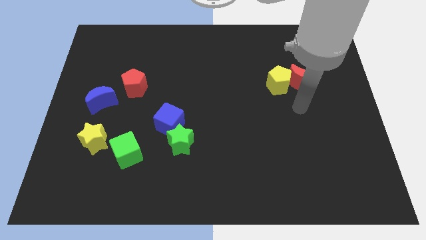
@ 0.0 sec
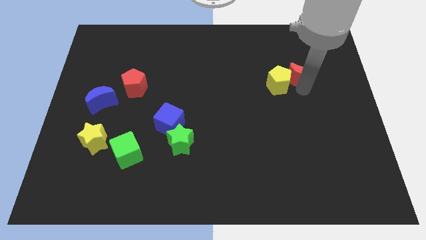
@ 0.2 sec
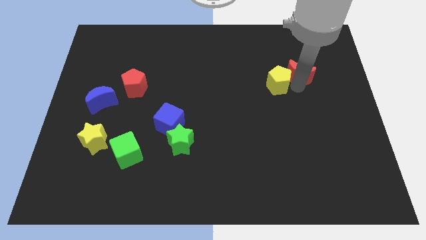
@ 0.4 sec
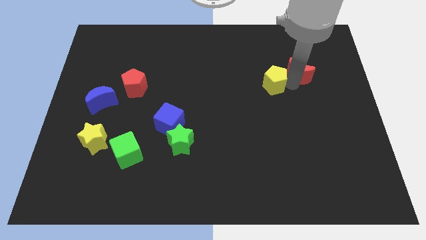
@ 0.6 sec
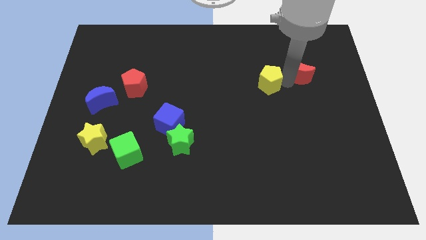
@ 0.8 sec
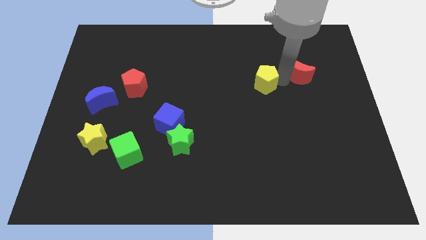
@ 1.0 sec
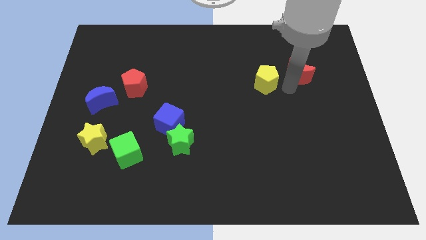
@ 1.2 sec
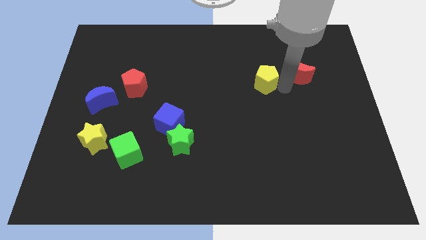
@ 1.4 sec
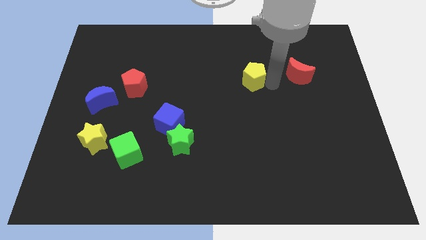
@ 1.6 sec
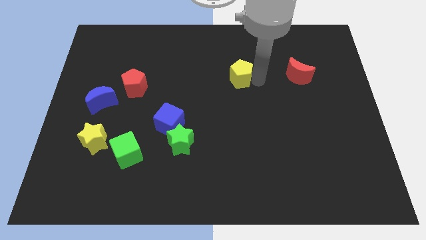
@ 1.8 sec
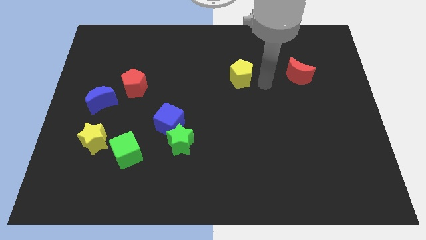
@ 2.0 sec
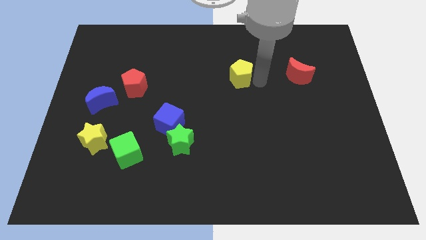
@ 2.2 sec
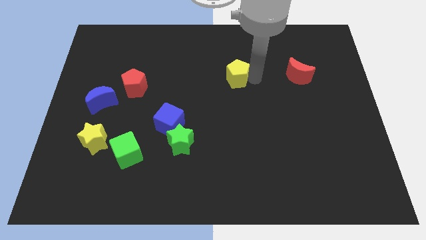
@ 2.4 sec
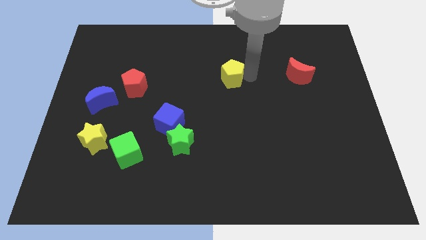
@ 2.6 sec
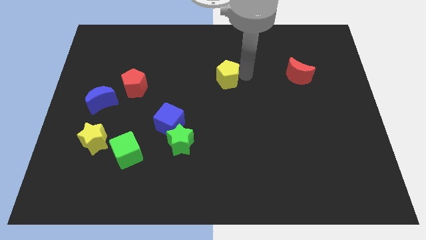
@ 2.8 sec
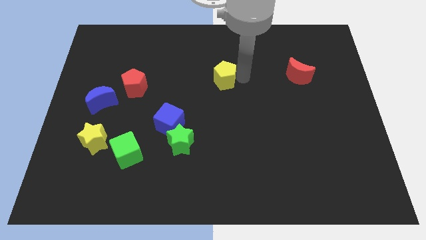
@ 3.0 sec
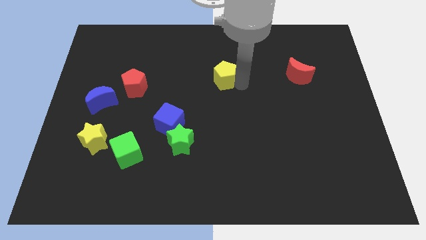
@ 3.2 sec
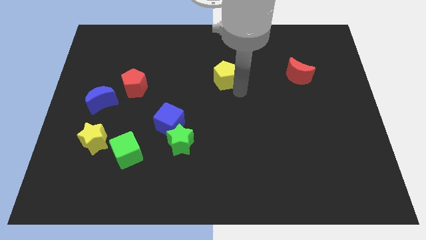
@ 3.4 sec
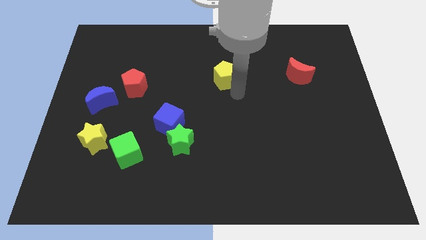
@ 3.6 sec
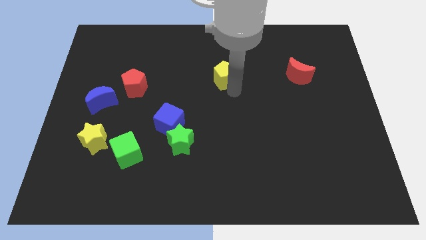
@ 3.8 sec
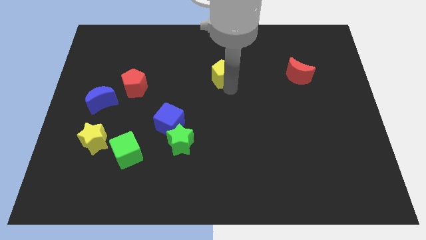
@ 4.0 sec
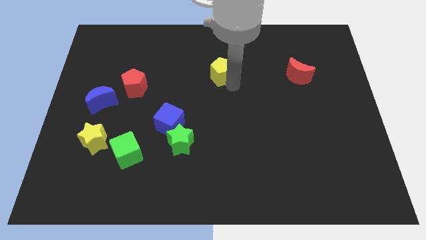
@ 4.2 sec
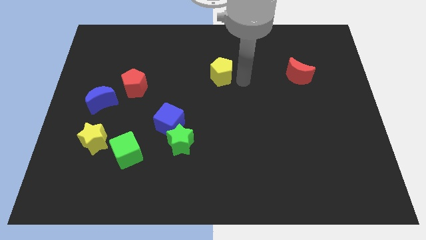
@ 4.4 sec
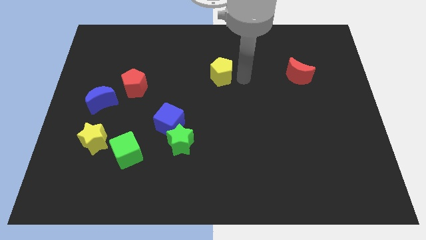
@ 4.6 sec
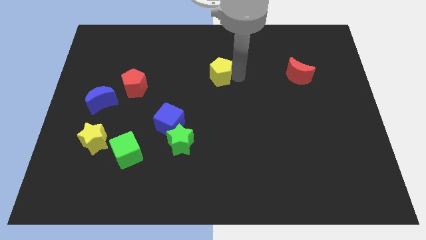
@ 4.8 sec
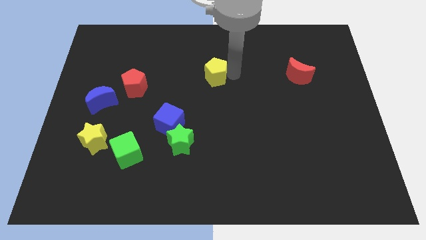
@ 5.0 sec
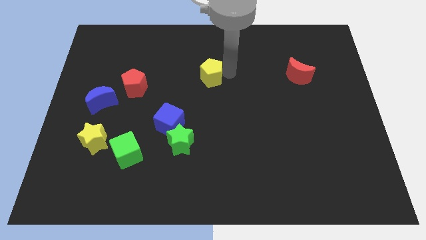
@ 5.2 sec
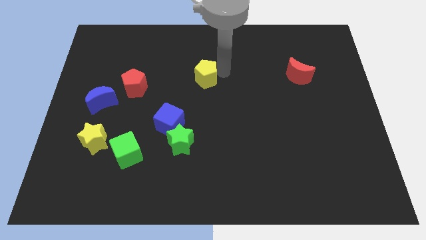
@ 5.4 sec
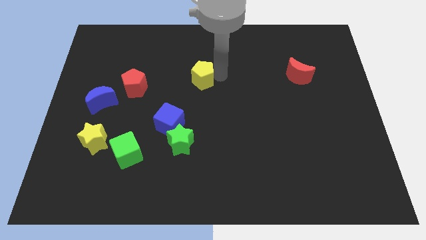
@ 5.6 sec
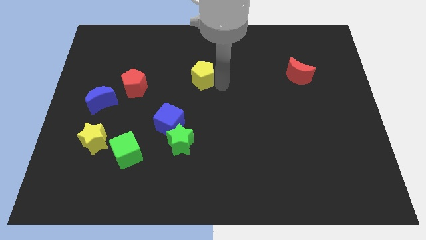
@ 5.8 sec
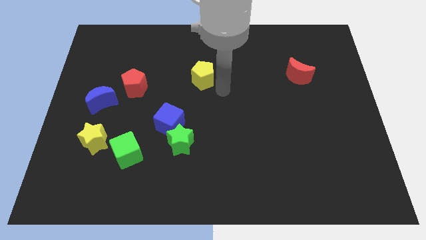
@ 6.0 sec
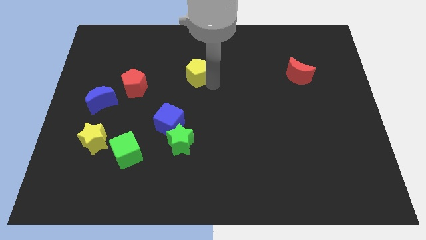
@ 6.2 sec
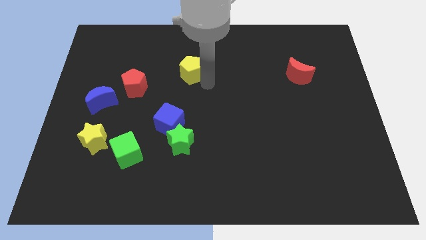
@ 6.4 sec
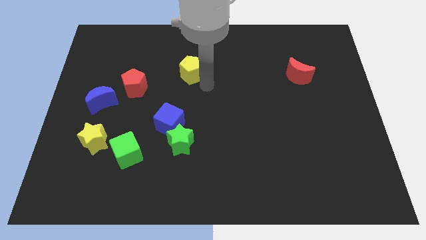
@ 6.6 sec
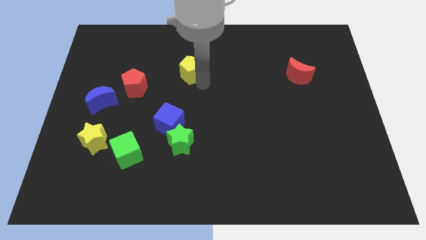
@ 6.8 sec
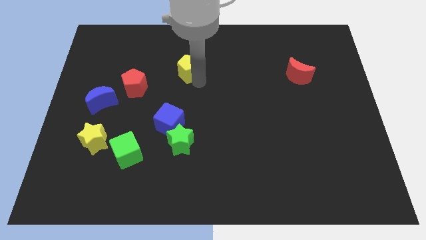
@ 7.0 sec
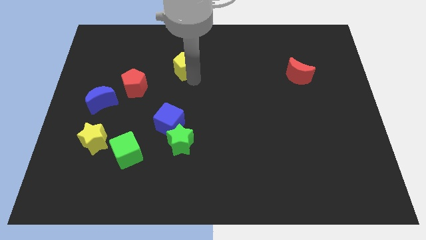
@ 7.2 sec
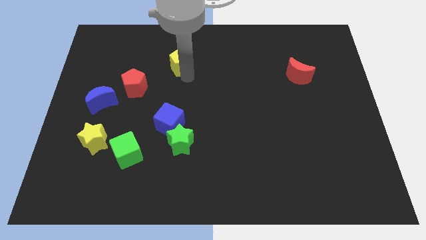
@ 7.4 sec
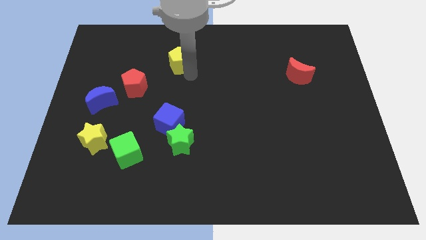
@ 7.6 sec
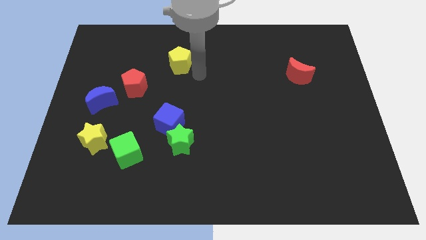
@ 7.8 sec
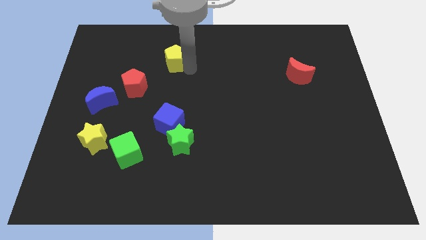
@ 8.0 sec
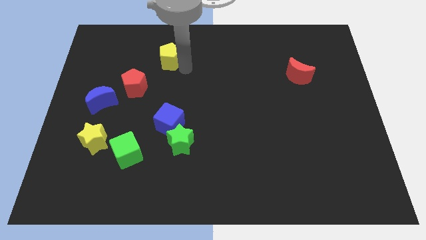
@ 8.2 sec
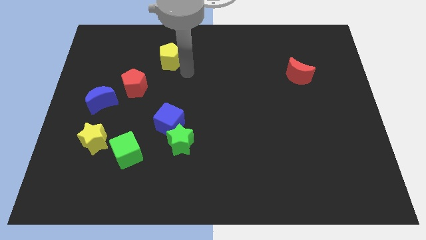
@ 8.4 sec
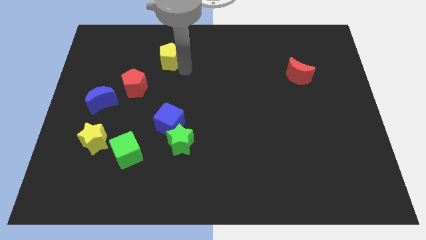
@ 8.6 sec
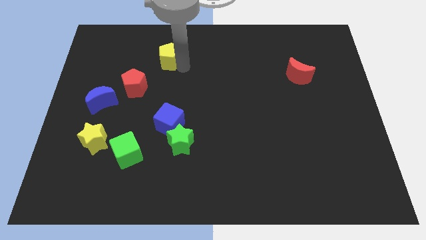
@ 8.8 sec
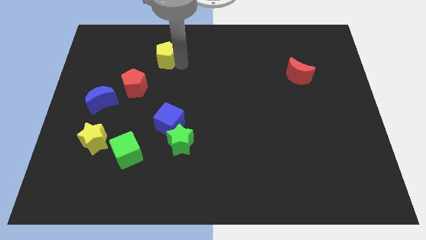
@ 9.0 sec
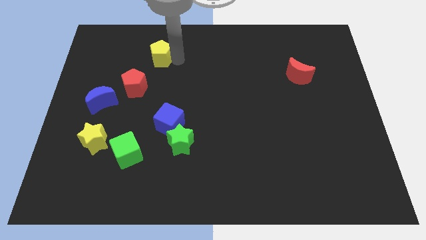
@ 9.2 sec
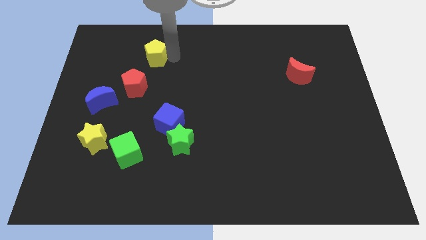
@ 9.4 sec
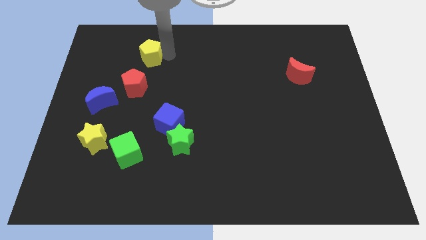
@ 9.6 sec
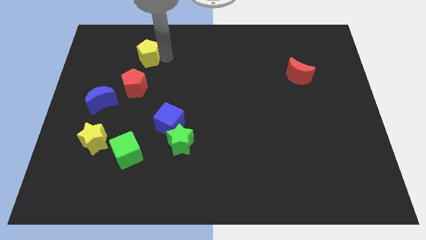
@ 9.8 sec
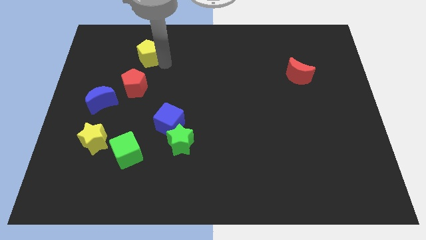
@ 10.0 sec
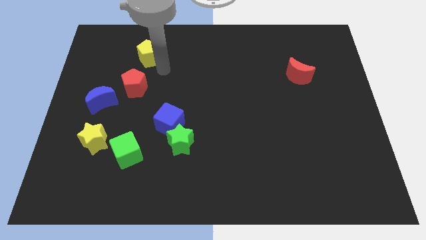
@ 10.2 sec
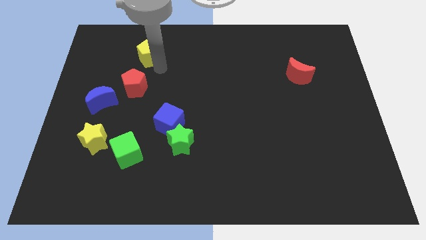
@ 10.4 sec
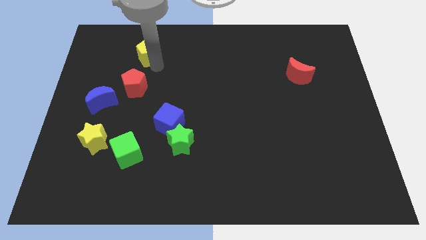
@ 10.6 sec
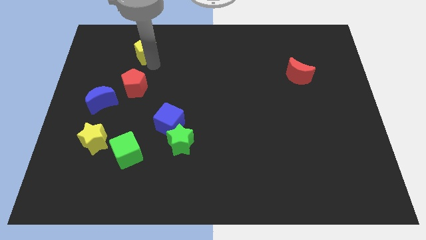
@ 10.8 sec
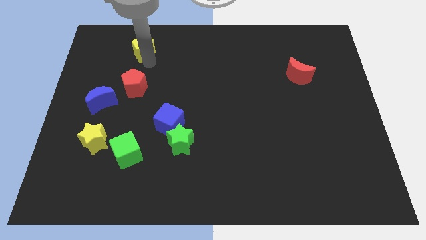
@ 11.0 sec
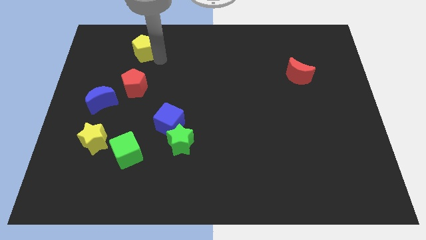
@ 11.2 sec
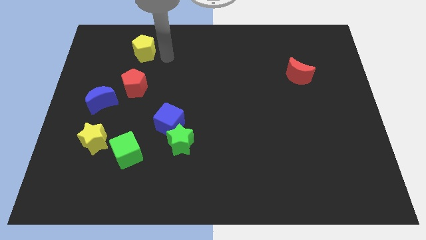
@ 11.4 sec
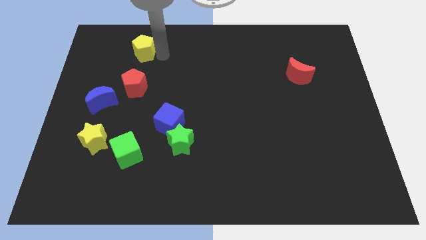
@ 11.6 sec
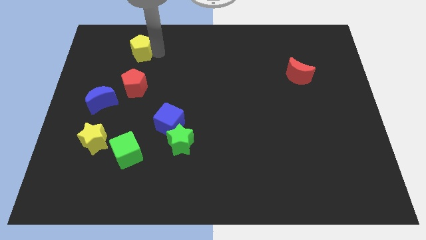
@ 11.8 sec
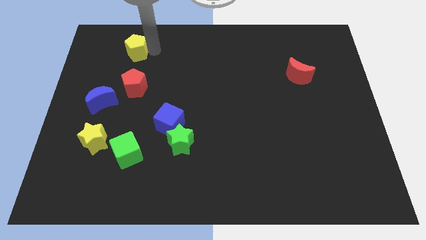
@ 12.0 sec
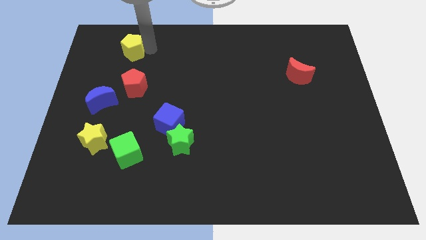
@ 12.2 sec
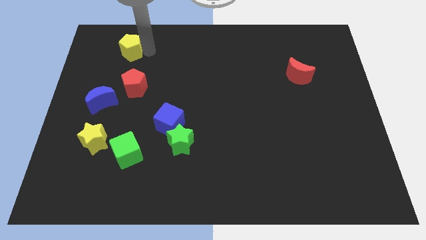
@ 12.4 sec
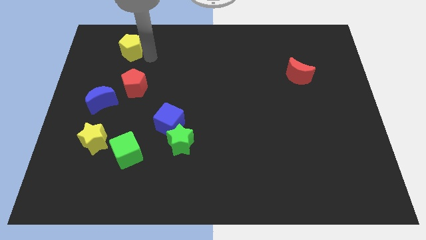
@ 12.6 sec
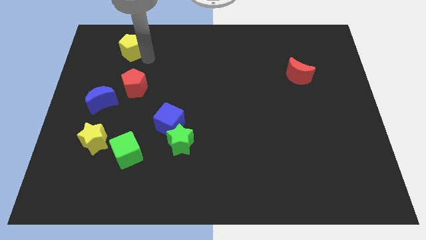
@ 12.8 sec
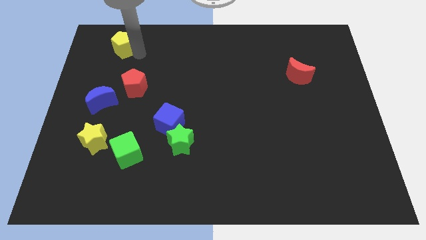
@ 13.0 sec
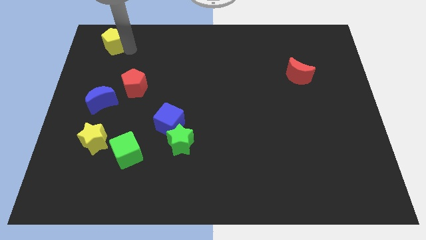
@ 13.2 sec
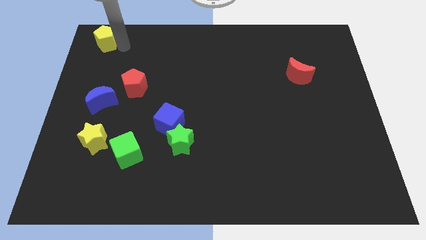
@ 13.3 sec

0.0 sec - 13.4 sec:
slide the yellow pentagon to the top left of the board
